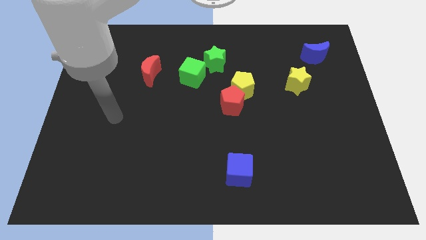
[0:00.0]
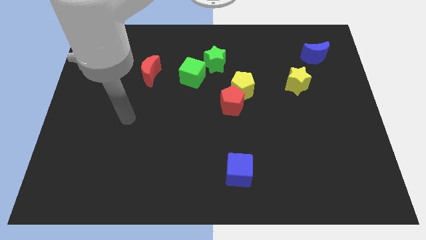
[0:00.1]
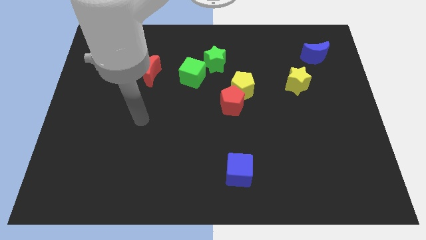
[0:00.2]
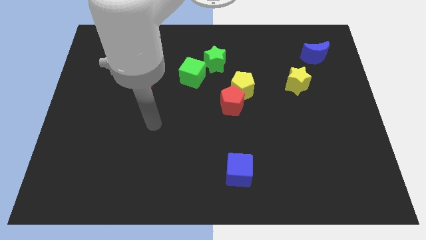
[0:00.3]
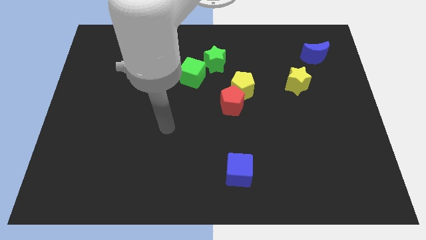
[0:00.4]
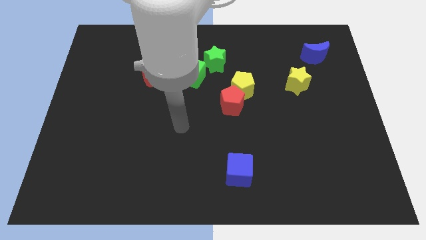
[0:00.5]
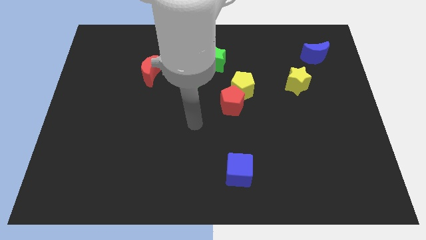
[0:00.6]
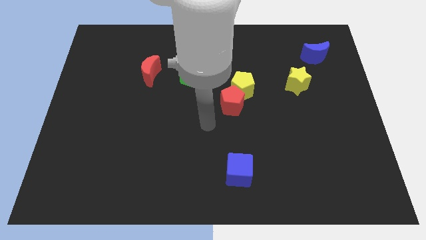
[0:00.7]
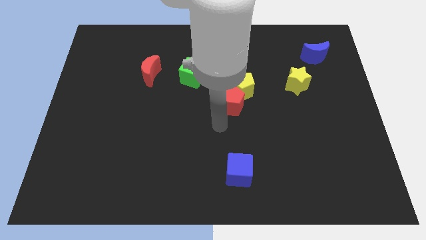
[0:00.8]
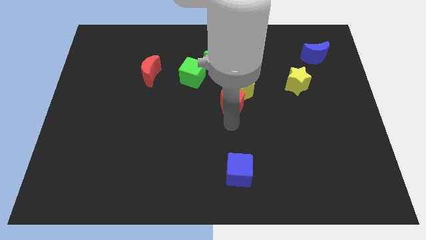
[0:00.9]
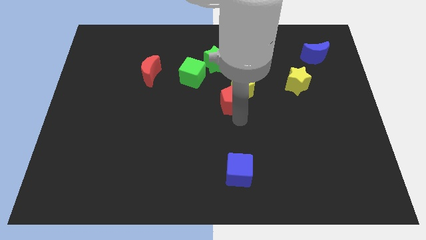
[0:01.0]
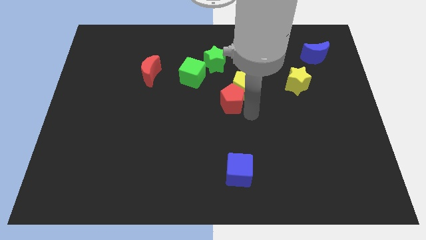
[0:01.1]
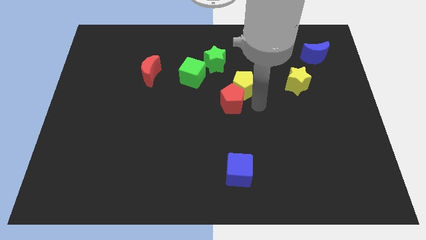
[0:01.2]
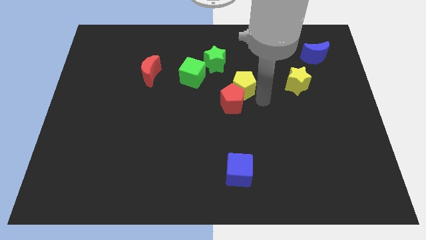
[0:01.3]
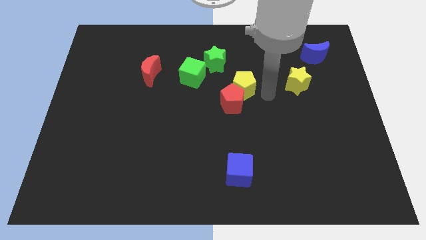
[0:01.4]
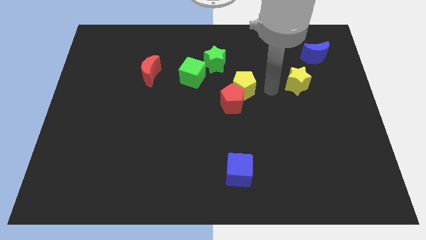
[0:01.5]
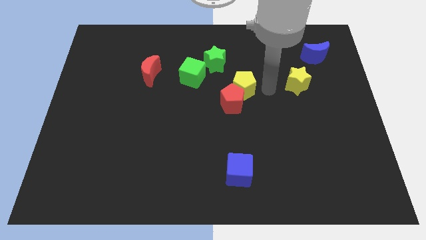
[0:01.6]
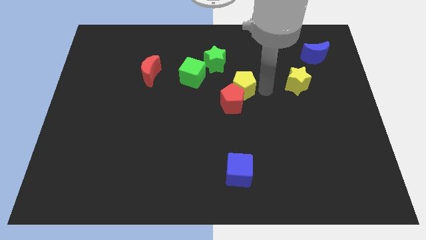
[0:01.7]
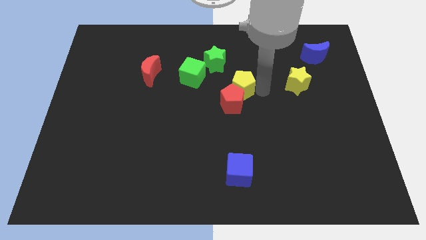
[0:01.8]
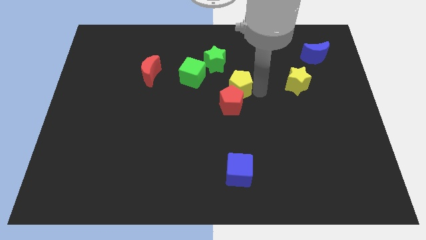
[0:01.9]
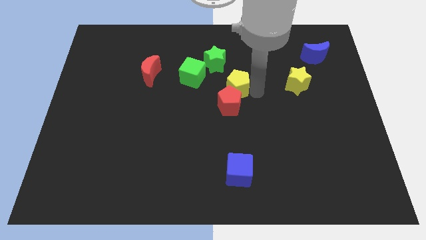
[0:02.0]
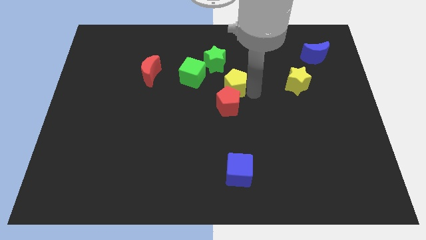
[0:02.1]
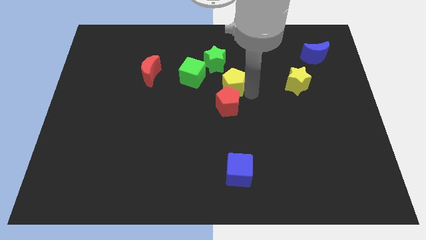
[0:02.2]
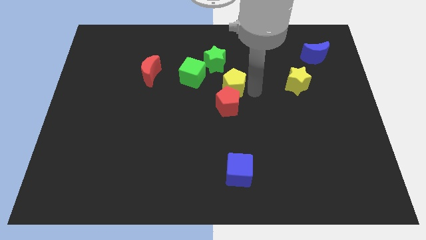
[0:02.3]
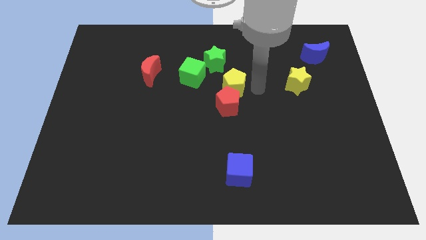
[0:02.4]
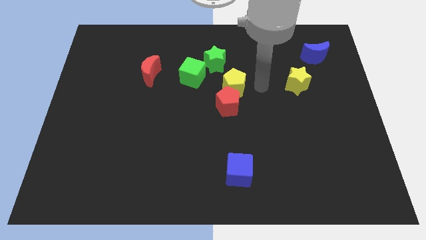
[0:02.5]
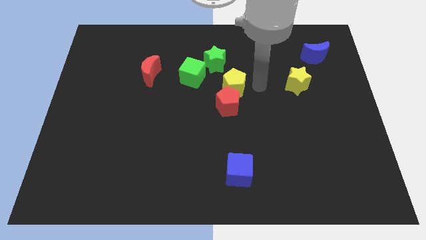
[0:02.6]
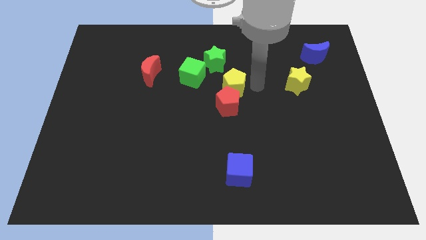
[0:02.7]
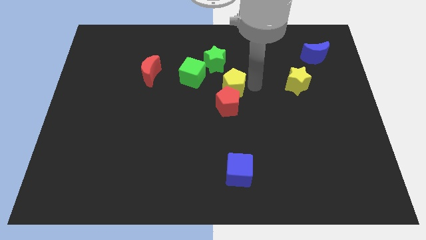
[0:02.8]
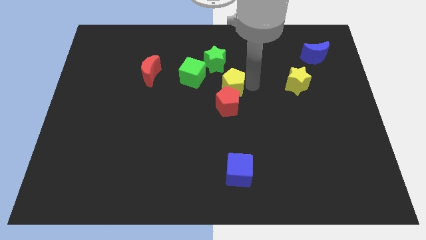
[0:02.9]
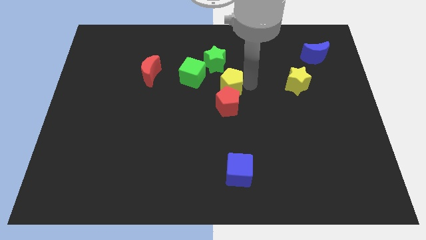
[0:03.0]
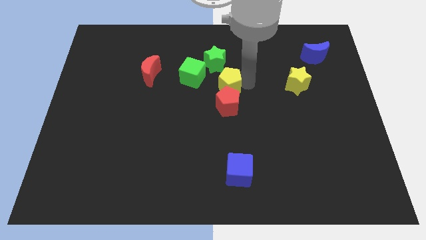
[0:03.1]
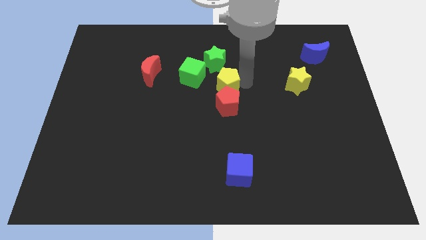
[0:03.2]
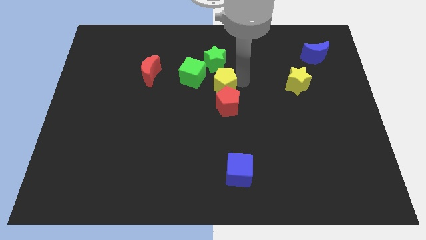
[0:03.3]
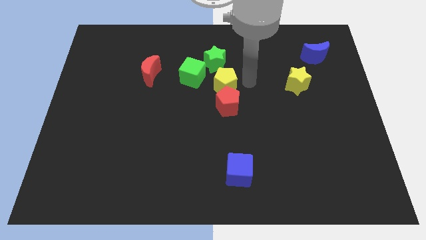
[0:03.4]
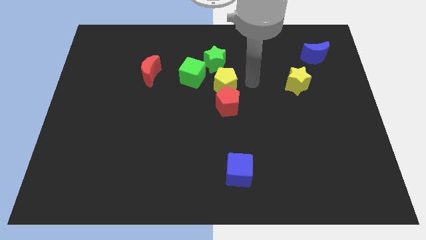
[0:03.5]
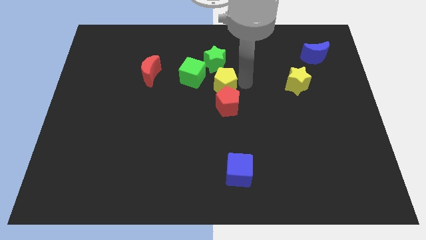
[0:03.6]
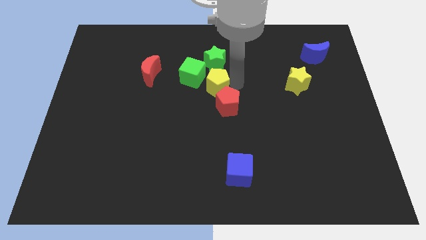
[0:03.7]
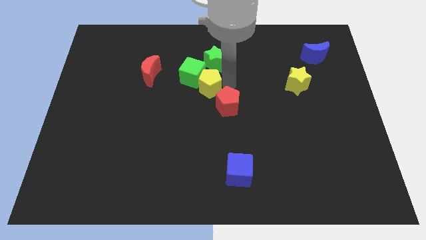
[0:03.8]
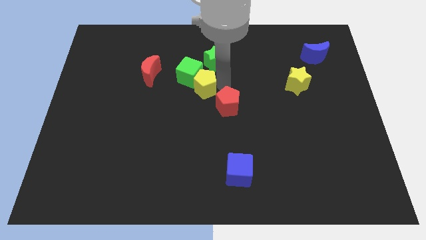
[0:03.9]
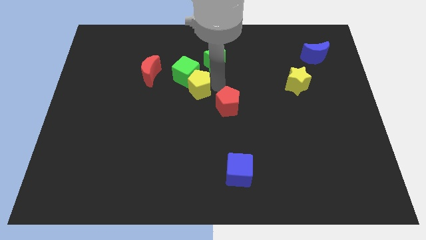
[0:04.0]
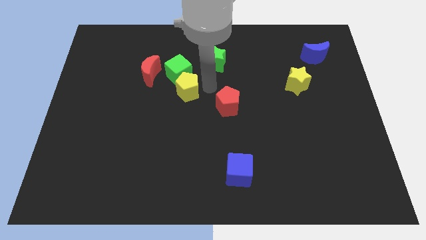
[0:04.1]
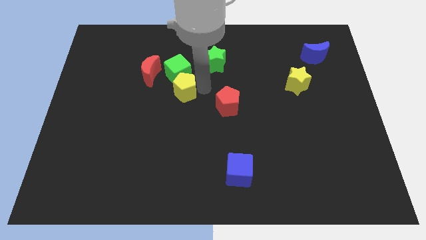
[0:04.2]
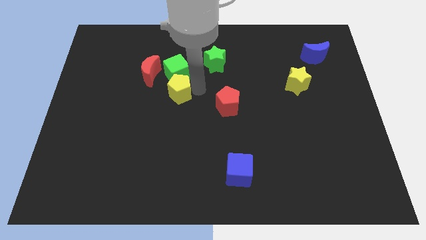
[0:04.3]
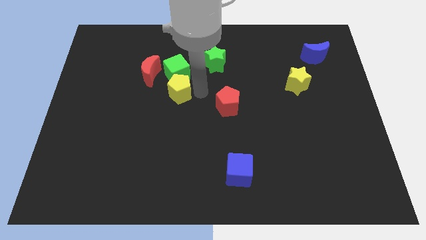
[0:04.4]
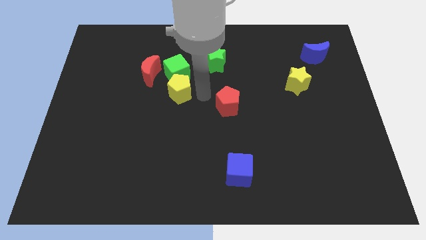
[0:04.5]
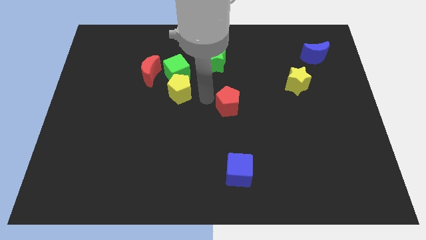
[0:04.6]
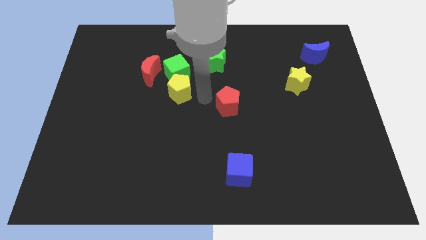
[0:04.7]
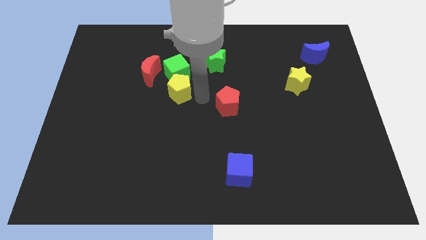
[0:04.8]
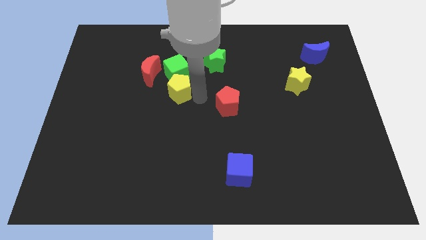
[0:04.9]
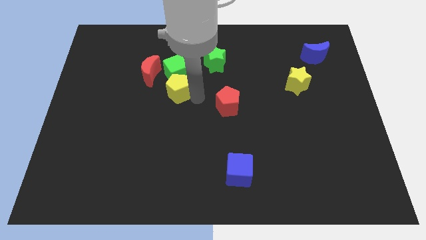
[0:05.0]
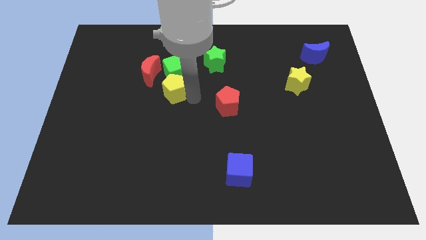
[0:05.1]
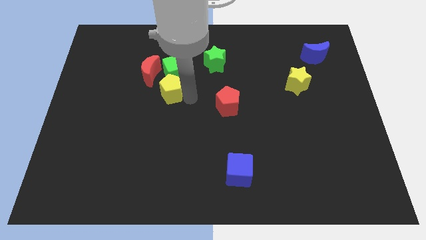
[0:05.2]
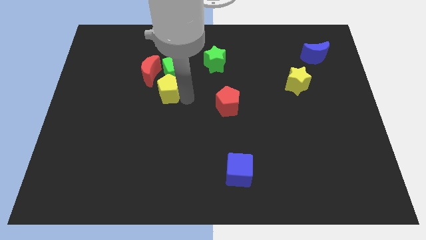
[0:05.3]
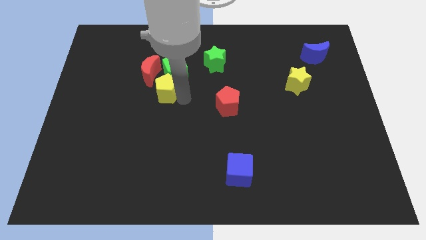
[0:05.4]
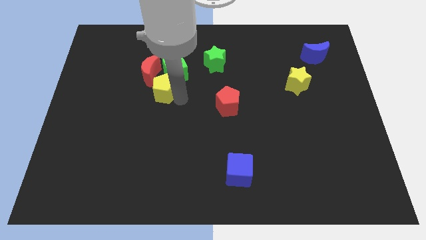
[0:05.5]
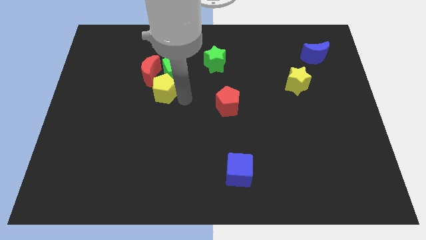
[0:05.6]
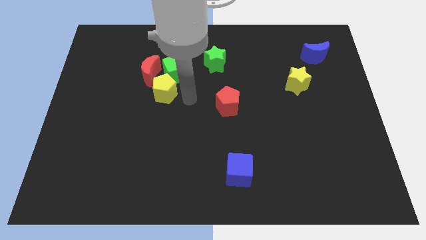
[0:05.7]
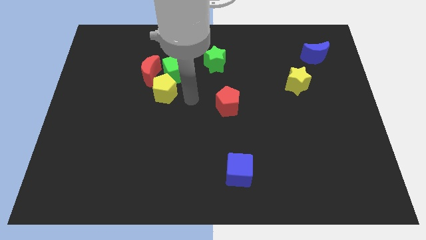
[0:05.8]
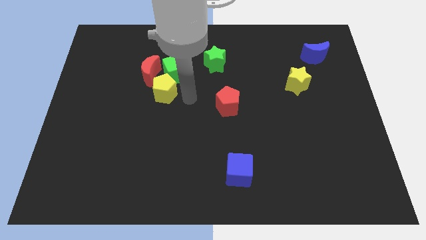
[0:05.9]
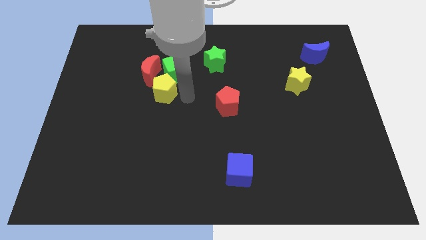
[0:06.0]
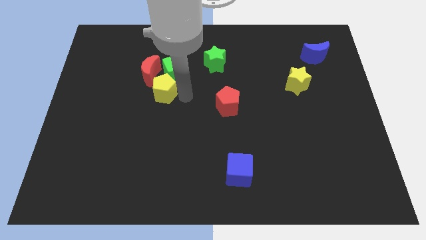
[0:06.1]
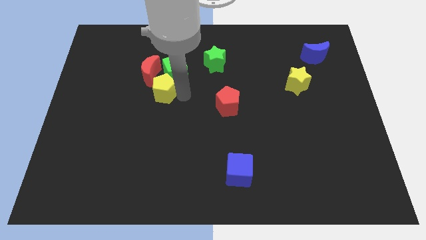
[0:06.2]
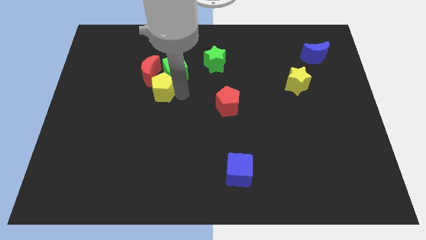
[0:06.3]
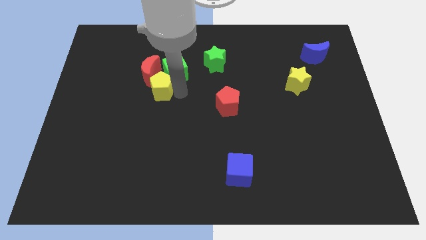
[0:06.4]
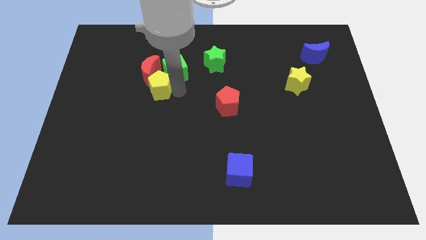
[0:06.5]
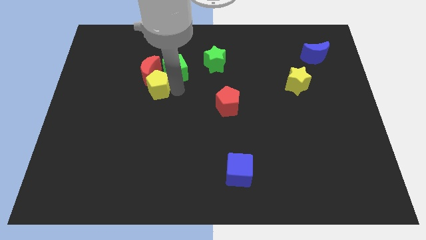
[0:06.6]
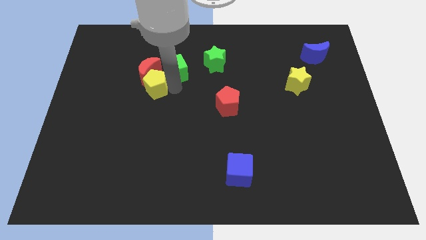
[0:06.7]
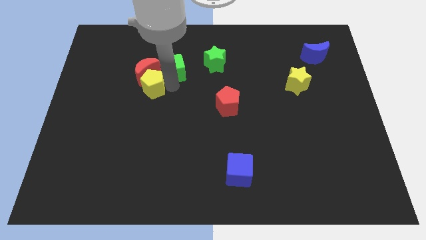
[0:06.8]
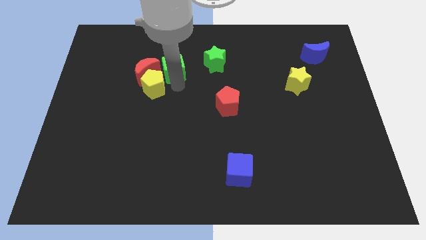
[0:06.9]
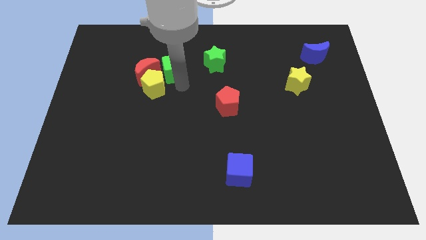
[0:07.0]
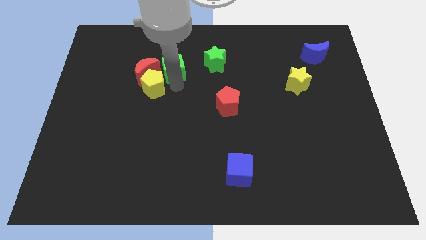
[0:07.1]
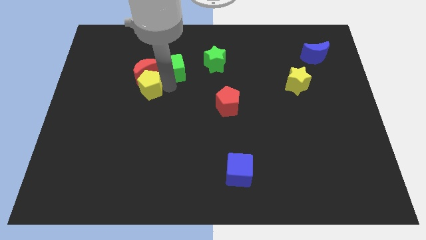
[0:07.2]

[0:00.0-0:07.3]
move the yellow pentagon to the bottom left side of the red moon
